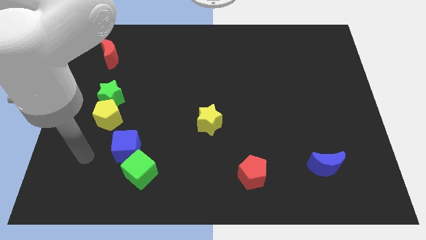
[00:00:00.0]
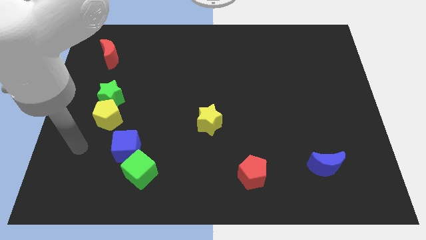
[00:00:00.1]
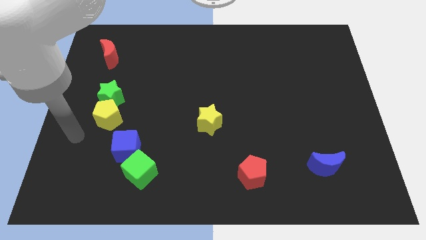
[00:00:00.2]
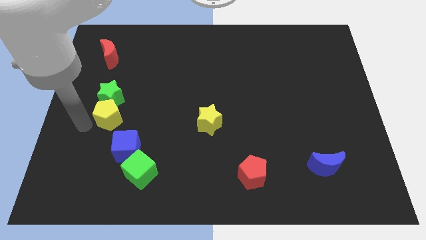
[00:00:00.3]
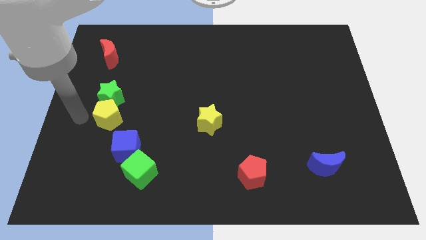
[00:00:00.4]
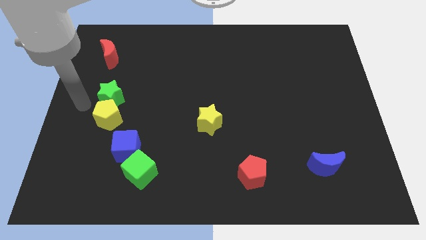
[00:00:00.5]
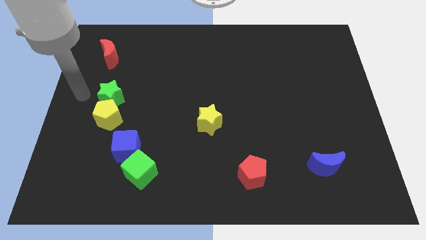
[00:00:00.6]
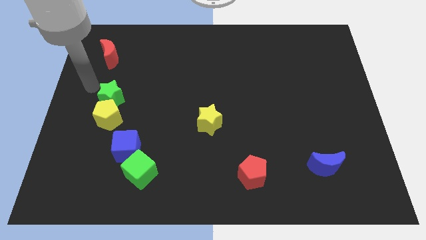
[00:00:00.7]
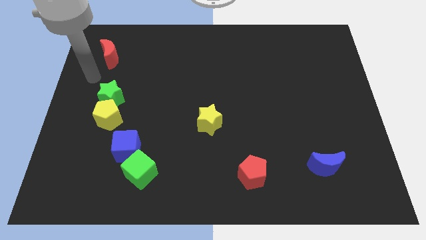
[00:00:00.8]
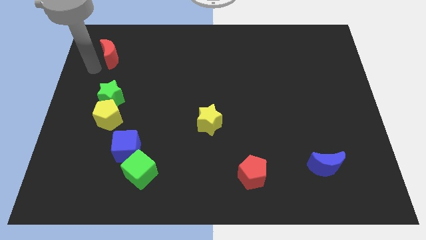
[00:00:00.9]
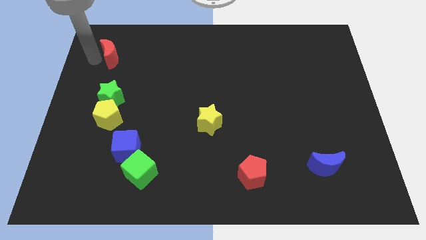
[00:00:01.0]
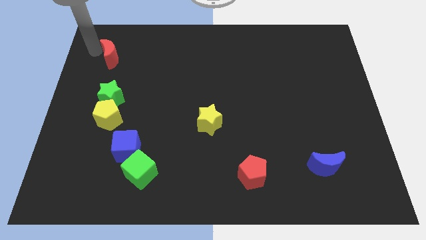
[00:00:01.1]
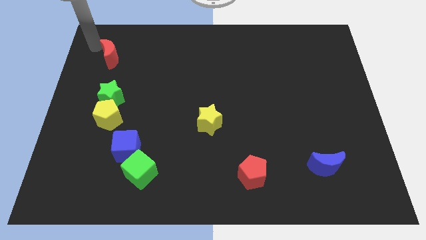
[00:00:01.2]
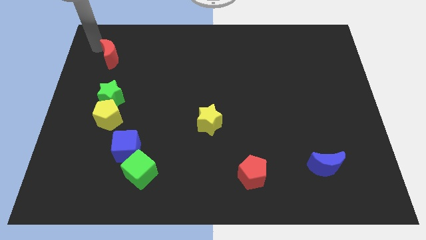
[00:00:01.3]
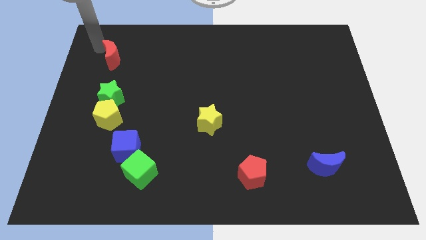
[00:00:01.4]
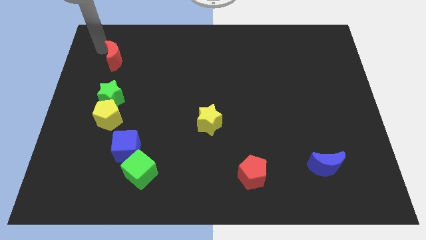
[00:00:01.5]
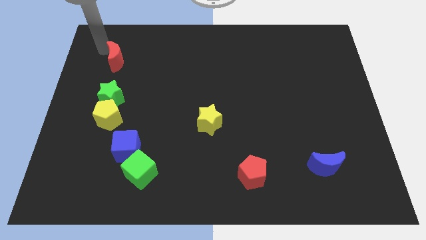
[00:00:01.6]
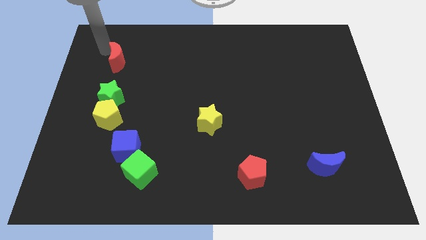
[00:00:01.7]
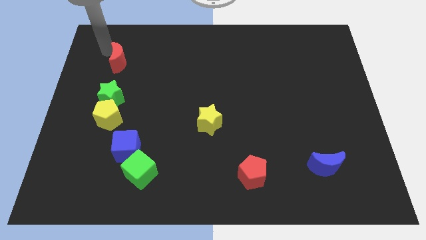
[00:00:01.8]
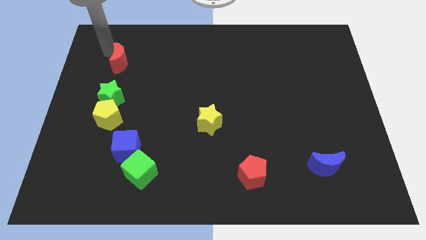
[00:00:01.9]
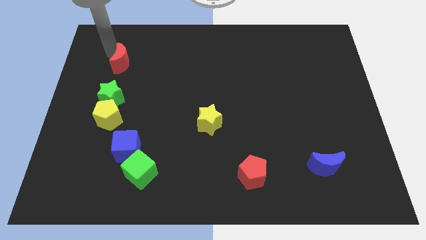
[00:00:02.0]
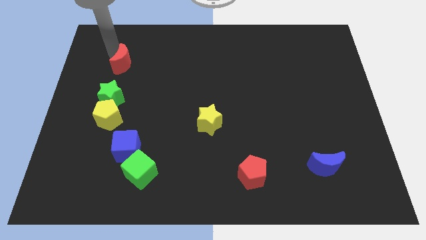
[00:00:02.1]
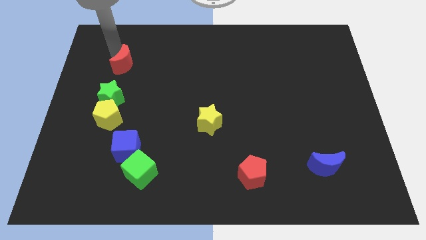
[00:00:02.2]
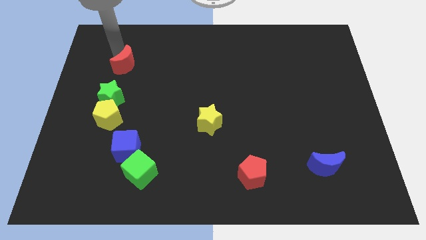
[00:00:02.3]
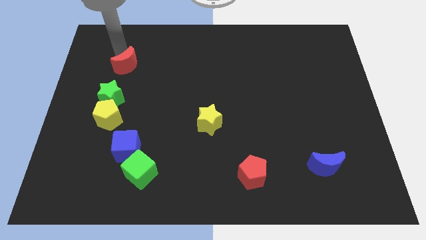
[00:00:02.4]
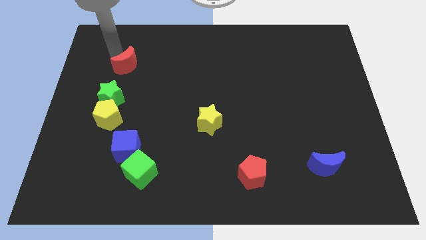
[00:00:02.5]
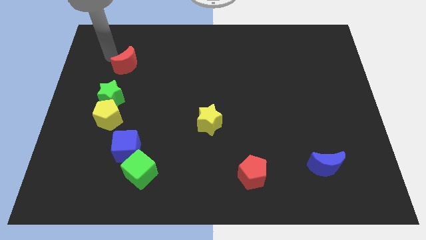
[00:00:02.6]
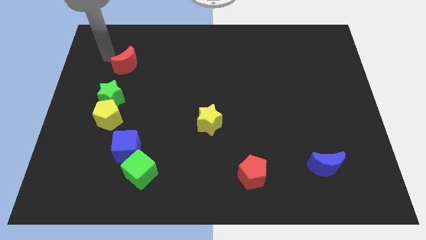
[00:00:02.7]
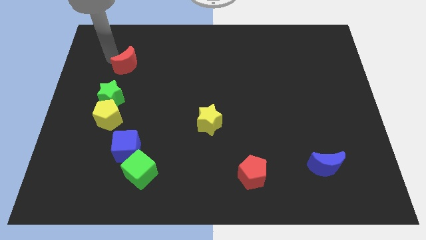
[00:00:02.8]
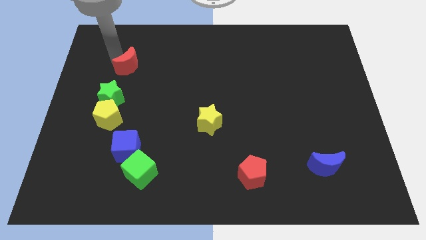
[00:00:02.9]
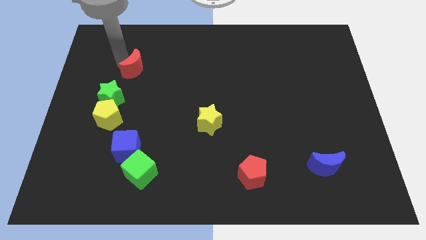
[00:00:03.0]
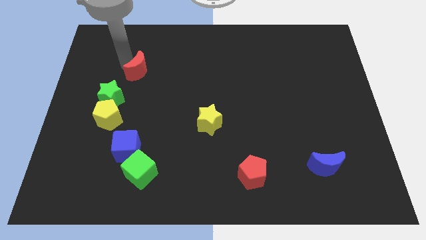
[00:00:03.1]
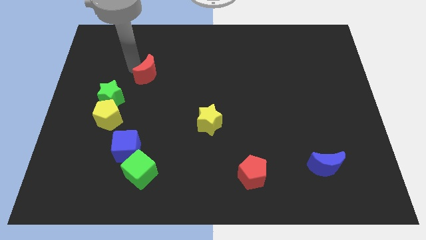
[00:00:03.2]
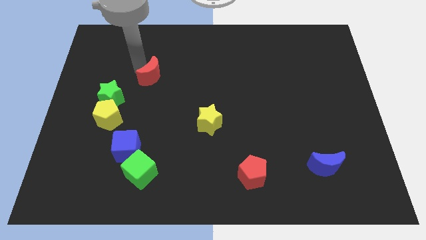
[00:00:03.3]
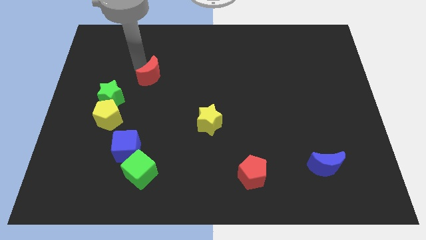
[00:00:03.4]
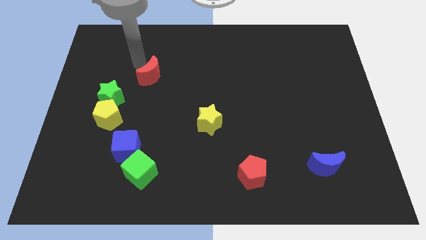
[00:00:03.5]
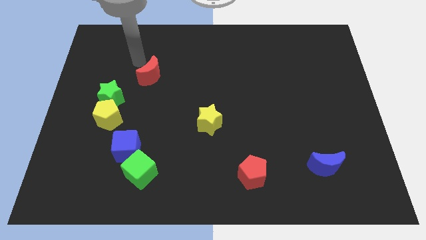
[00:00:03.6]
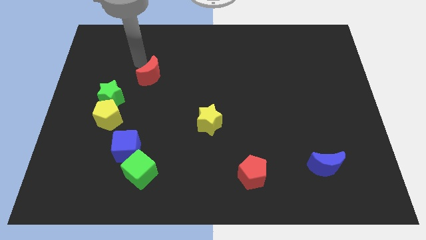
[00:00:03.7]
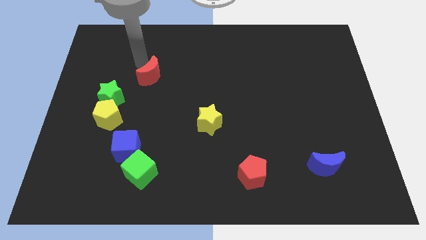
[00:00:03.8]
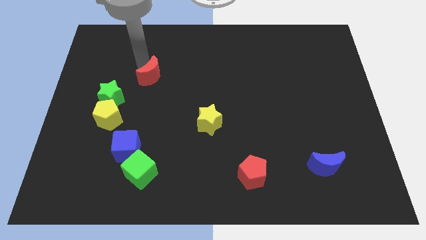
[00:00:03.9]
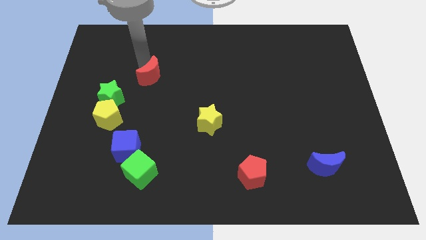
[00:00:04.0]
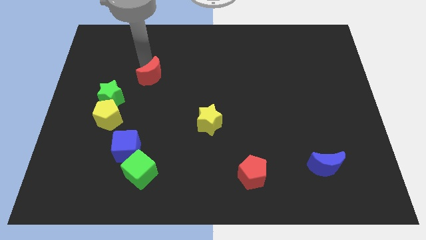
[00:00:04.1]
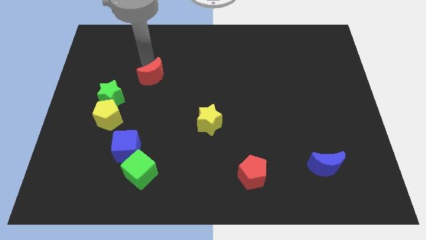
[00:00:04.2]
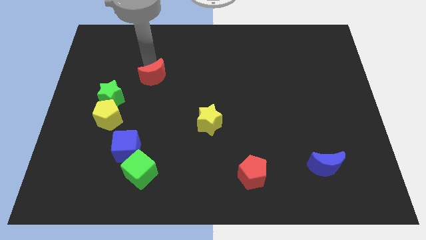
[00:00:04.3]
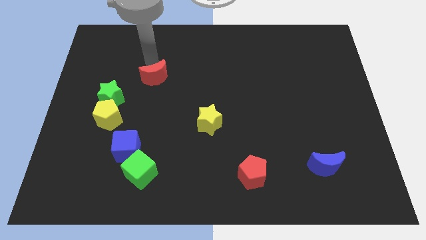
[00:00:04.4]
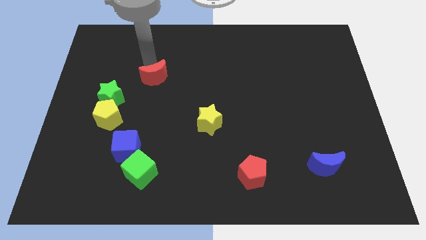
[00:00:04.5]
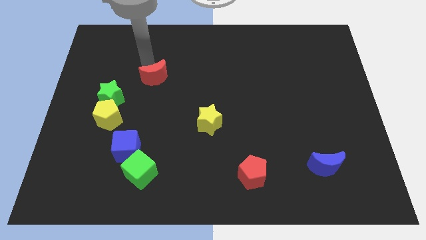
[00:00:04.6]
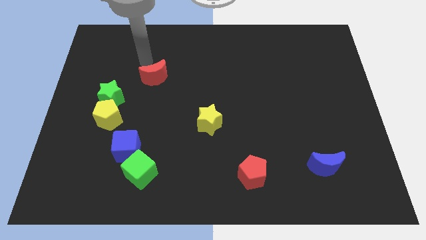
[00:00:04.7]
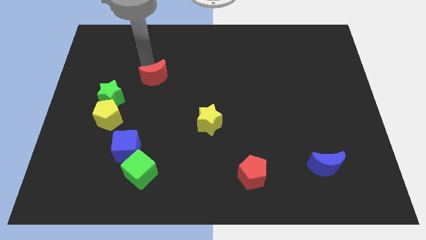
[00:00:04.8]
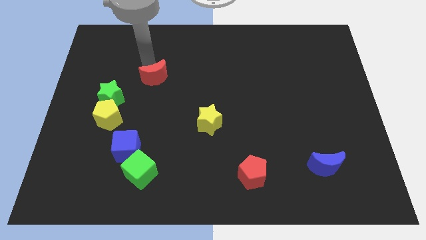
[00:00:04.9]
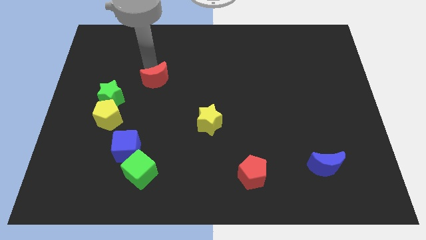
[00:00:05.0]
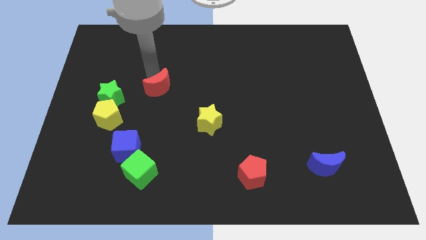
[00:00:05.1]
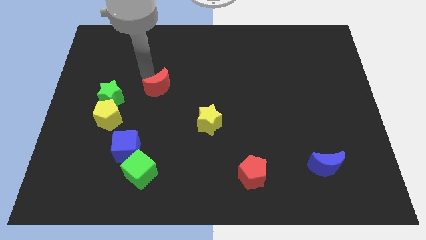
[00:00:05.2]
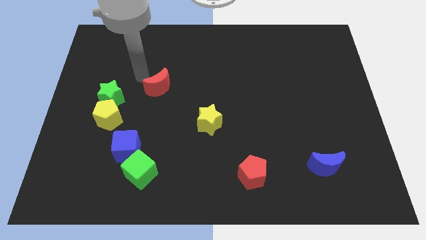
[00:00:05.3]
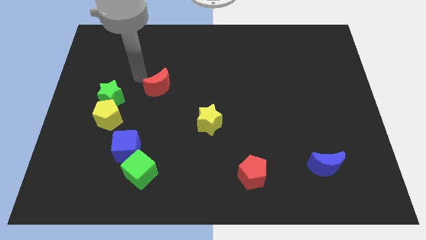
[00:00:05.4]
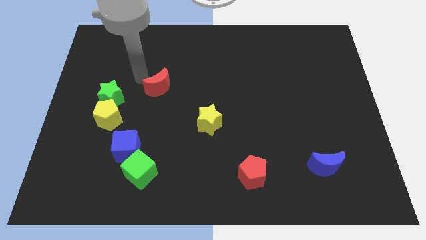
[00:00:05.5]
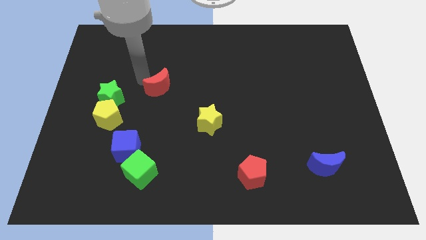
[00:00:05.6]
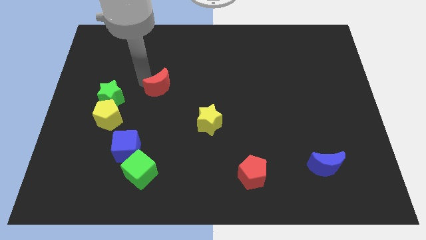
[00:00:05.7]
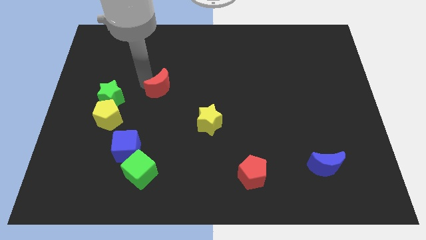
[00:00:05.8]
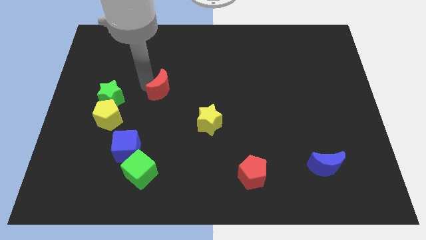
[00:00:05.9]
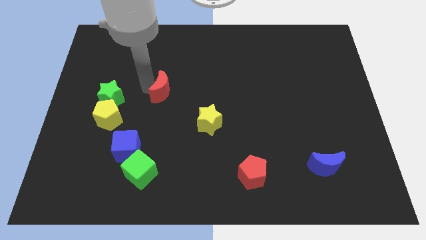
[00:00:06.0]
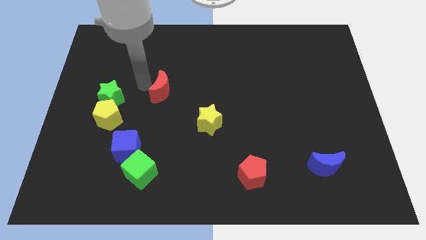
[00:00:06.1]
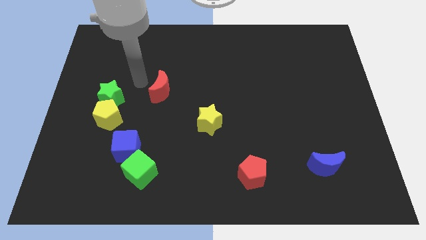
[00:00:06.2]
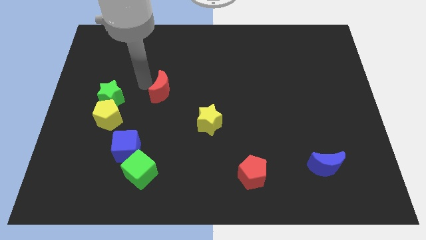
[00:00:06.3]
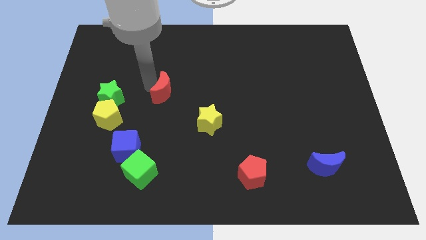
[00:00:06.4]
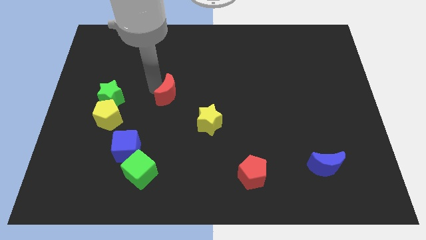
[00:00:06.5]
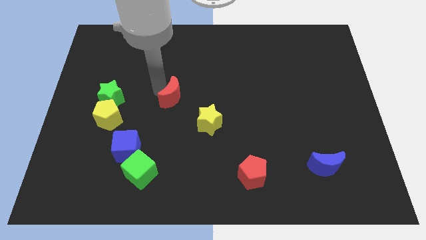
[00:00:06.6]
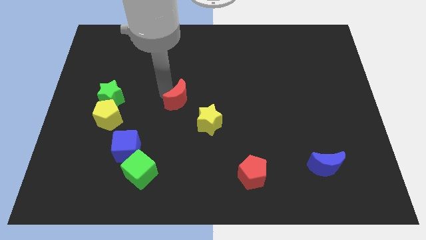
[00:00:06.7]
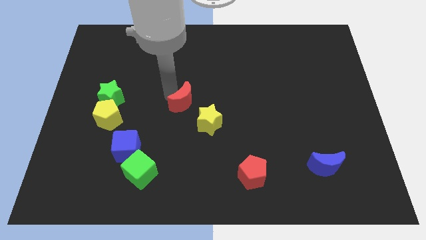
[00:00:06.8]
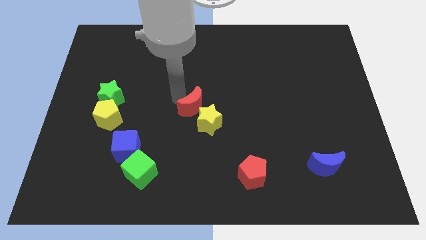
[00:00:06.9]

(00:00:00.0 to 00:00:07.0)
move the red moon to the yellow star
